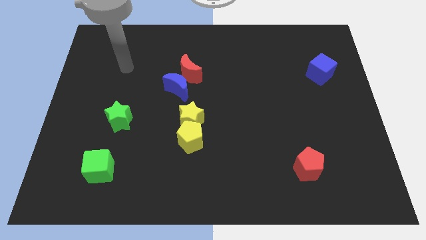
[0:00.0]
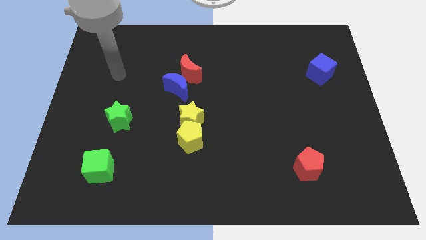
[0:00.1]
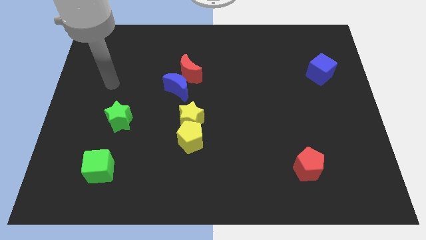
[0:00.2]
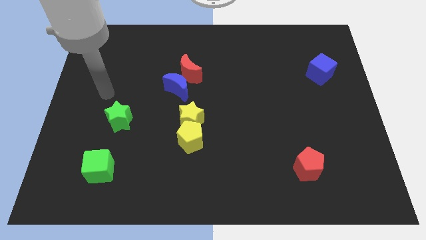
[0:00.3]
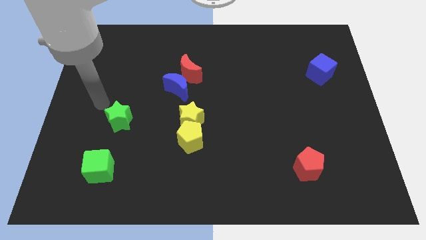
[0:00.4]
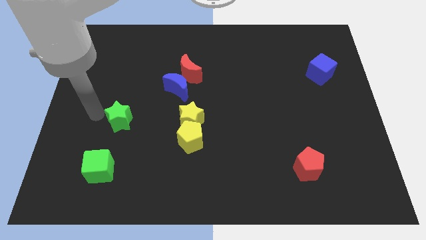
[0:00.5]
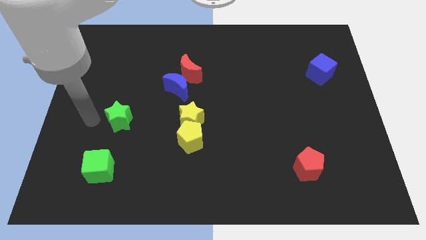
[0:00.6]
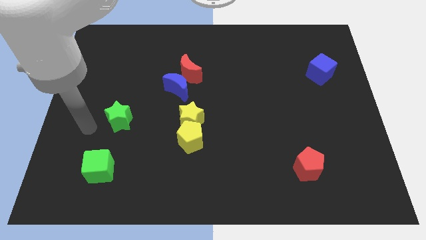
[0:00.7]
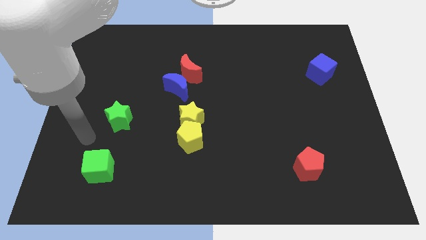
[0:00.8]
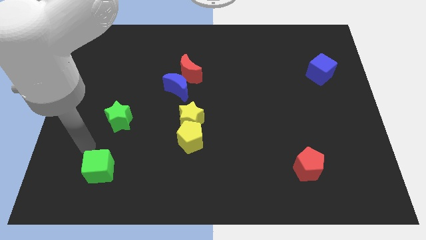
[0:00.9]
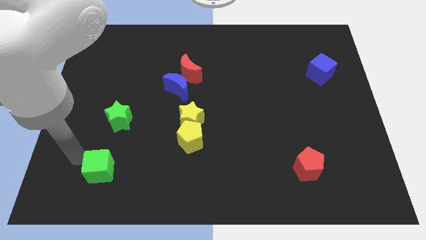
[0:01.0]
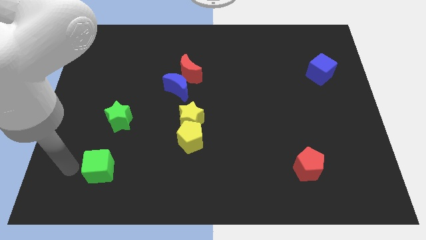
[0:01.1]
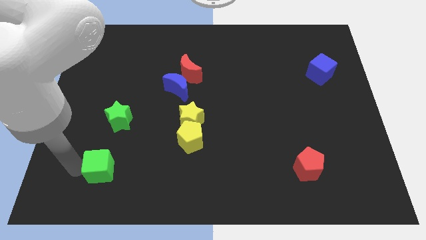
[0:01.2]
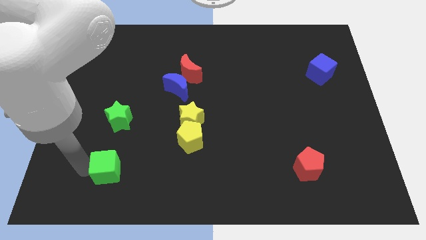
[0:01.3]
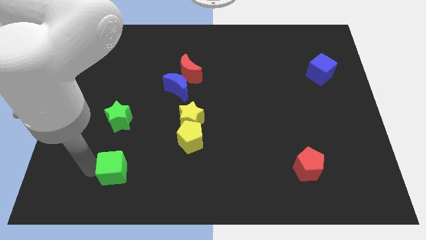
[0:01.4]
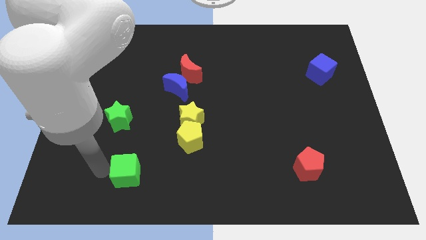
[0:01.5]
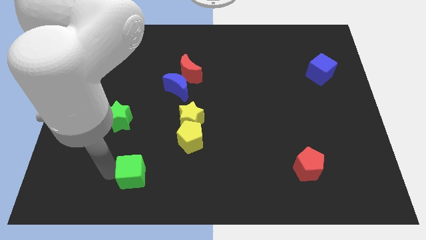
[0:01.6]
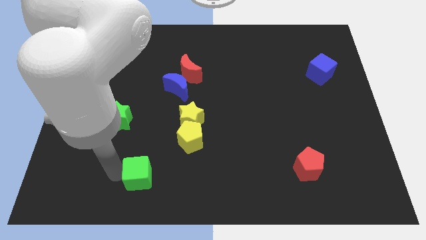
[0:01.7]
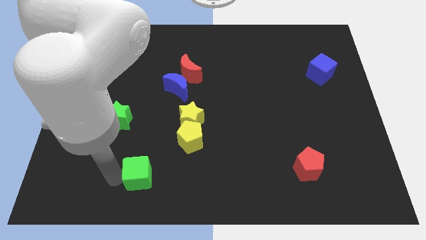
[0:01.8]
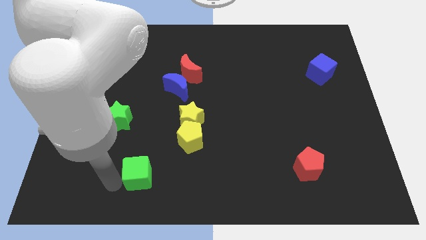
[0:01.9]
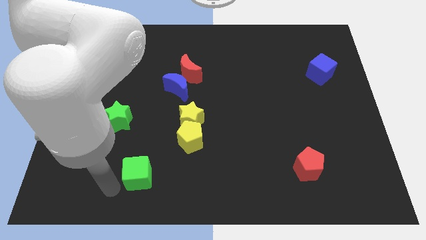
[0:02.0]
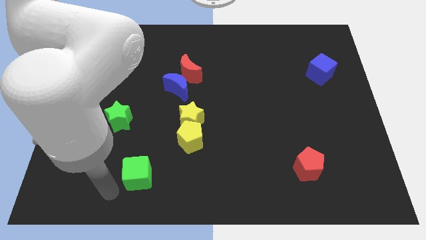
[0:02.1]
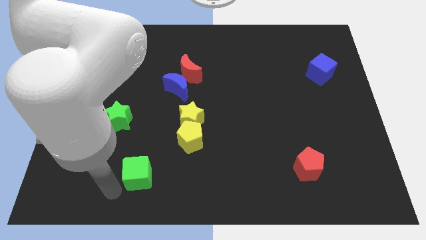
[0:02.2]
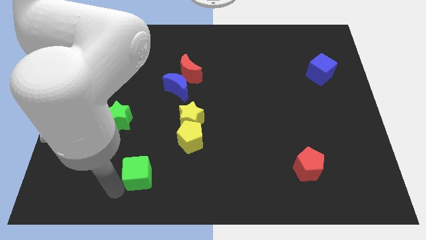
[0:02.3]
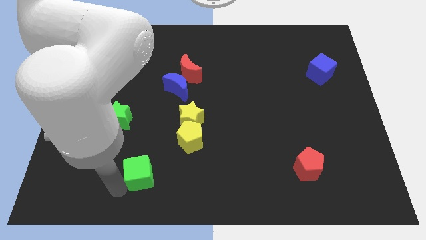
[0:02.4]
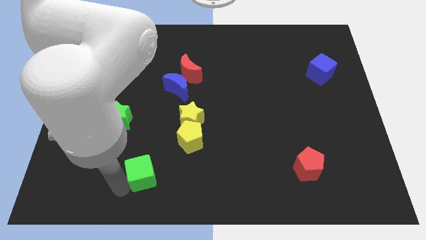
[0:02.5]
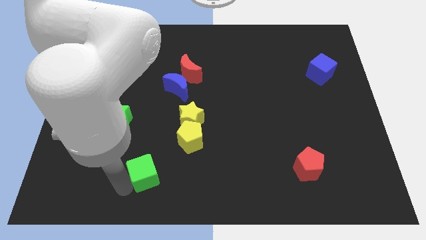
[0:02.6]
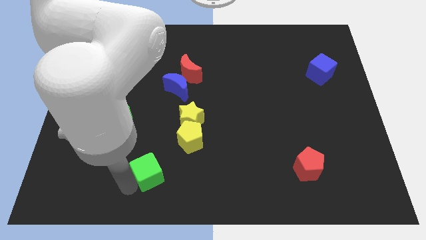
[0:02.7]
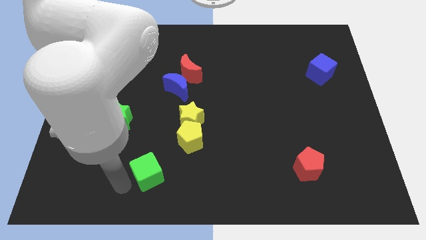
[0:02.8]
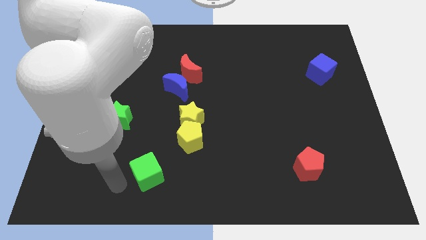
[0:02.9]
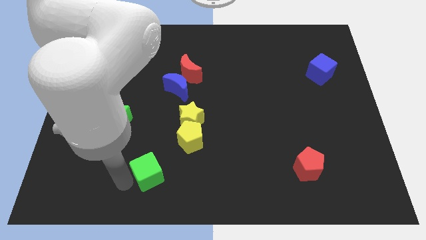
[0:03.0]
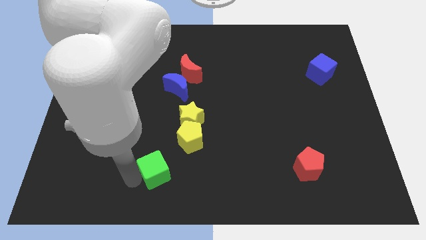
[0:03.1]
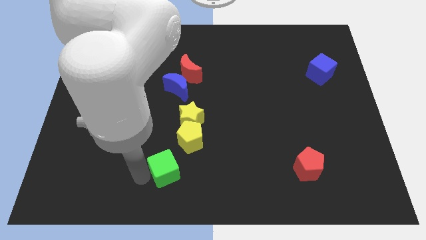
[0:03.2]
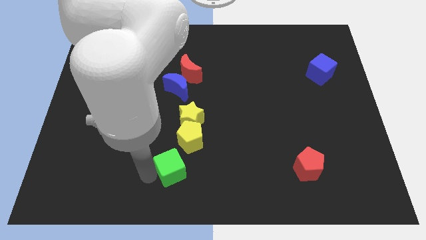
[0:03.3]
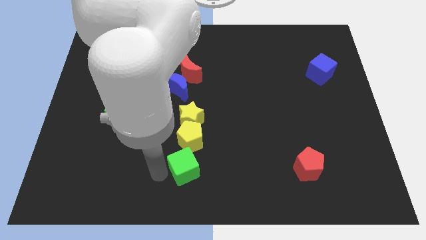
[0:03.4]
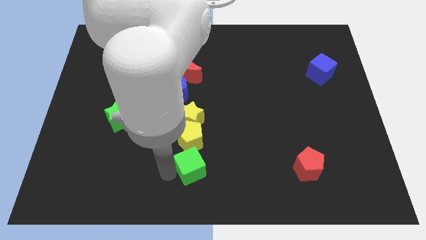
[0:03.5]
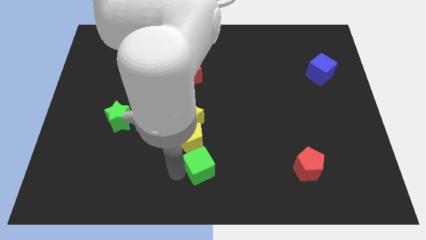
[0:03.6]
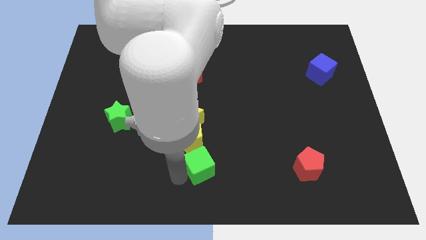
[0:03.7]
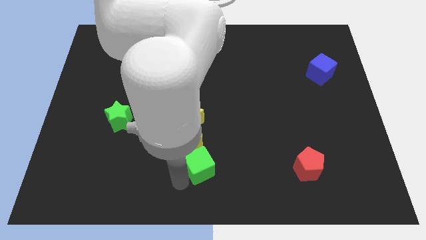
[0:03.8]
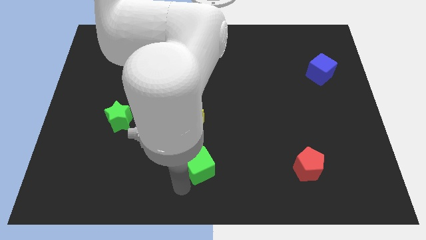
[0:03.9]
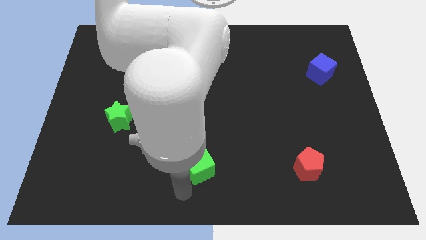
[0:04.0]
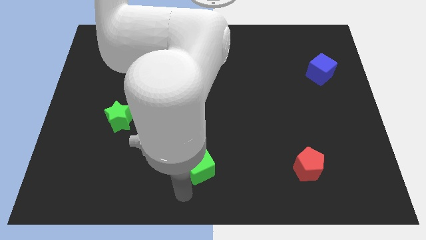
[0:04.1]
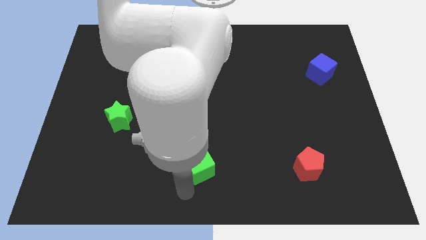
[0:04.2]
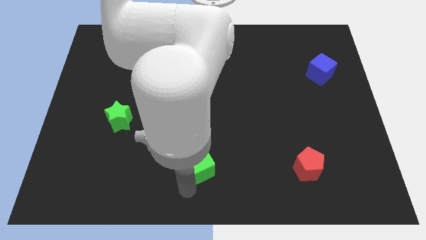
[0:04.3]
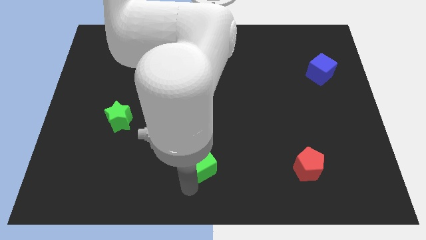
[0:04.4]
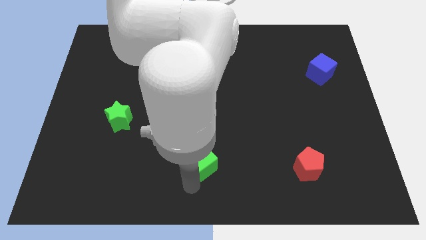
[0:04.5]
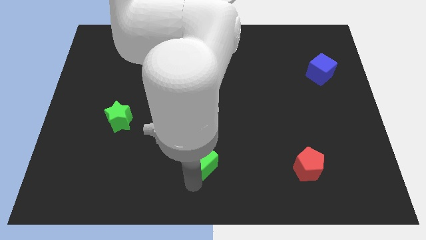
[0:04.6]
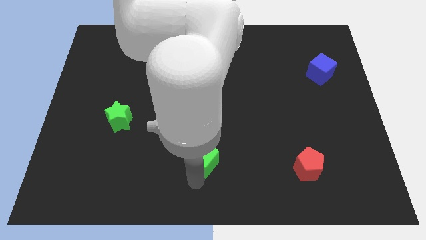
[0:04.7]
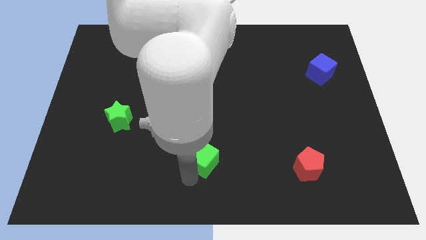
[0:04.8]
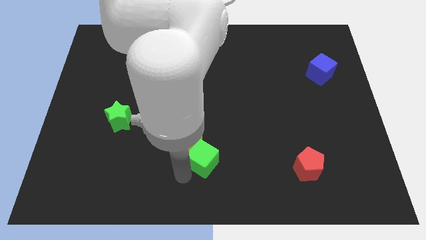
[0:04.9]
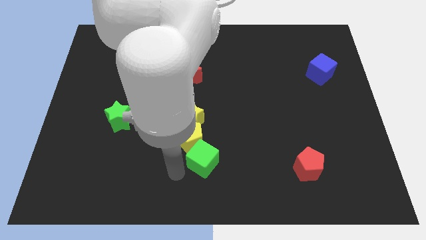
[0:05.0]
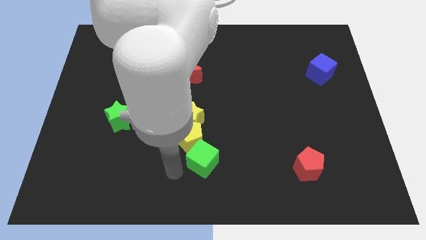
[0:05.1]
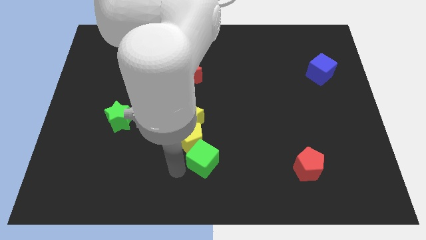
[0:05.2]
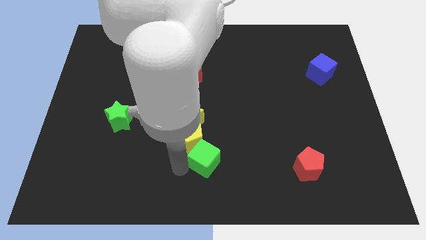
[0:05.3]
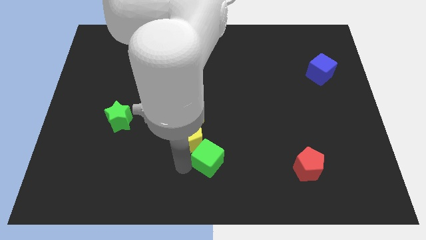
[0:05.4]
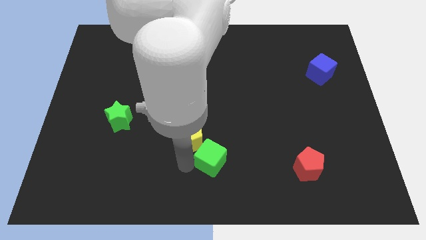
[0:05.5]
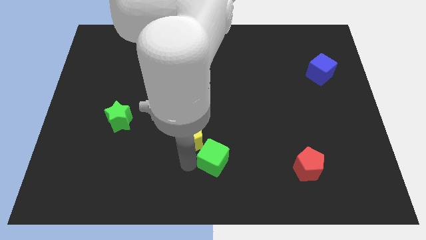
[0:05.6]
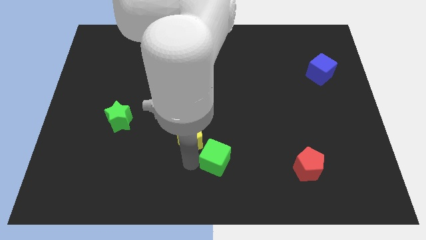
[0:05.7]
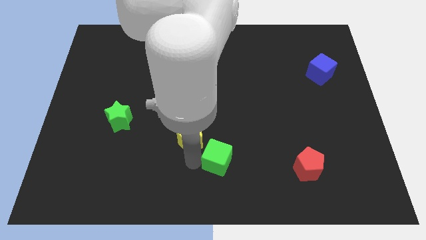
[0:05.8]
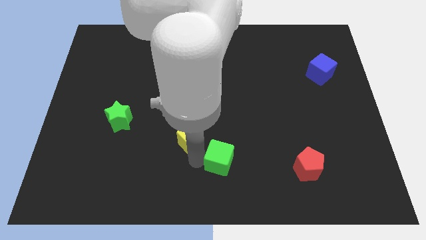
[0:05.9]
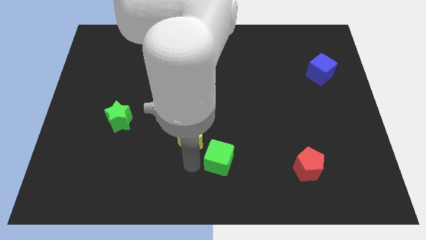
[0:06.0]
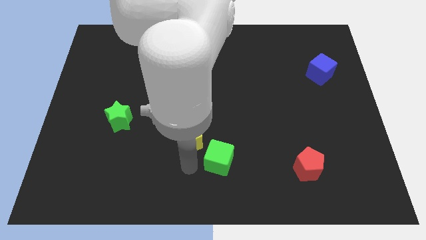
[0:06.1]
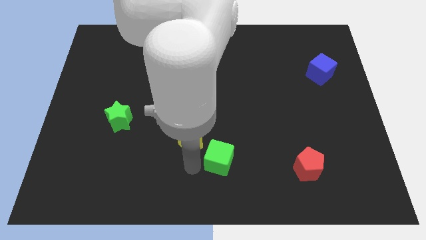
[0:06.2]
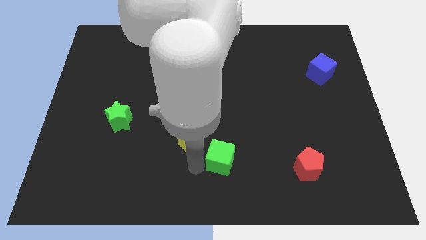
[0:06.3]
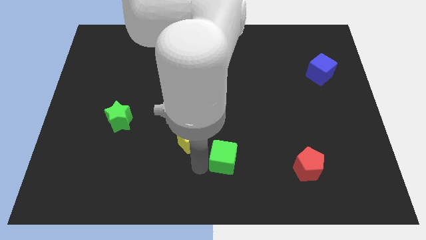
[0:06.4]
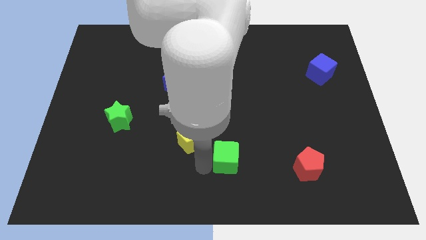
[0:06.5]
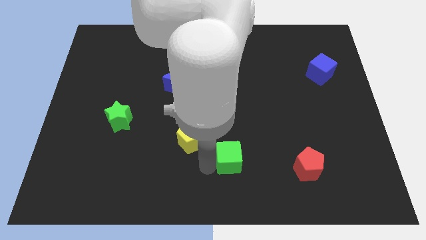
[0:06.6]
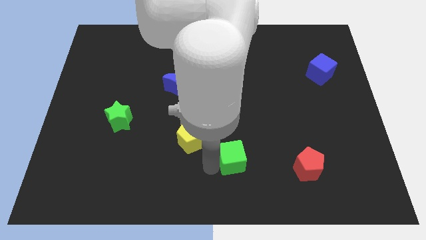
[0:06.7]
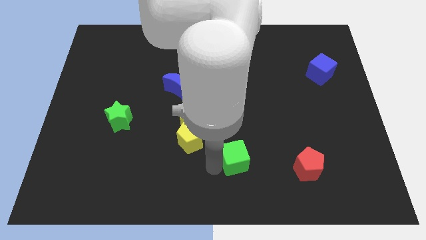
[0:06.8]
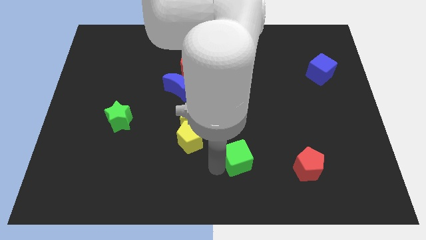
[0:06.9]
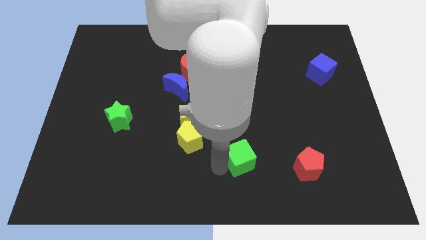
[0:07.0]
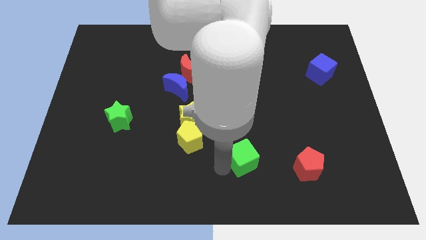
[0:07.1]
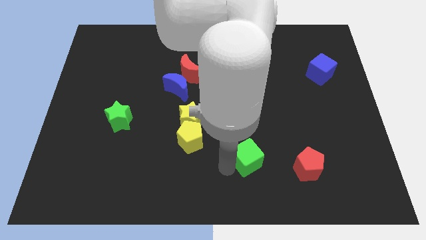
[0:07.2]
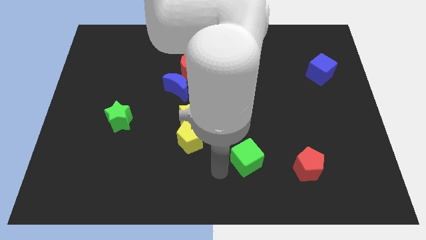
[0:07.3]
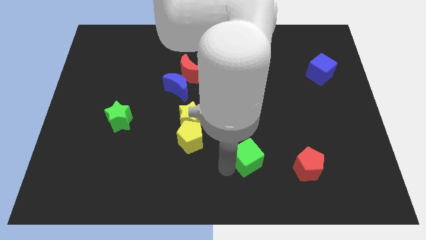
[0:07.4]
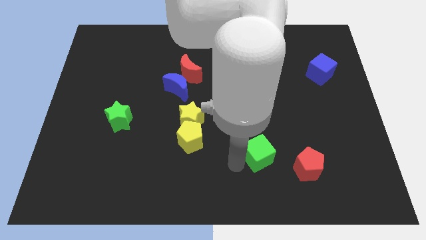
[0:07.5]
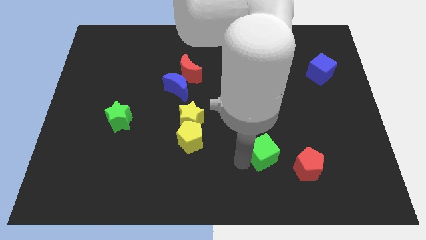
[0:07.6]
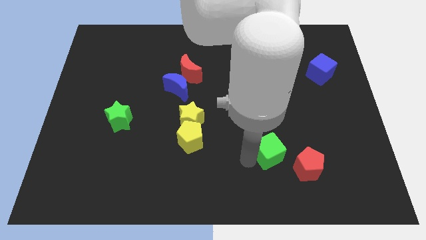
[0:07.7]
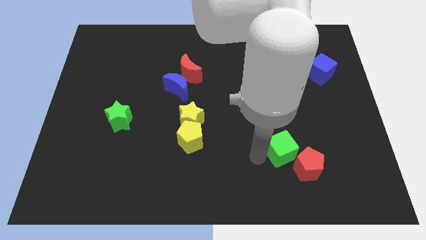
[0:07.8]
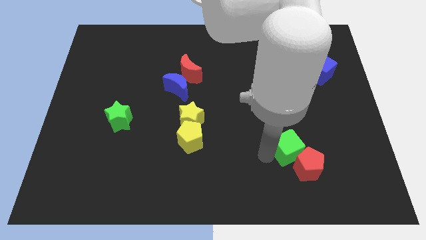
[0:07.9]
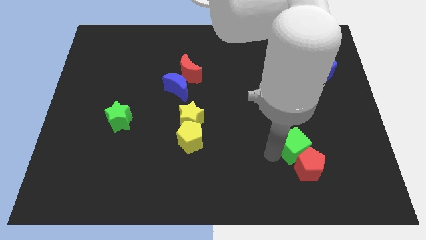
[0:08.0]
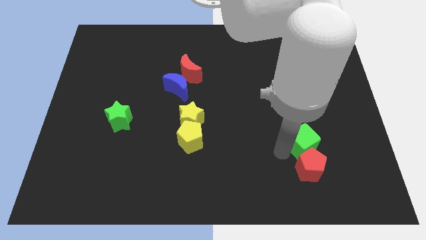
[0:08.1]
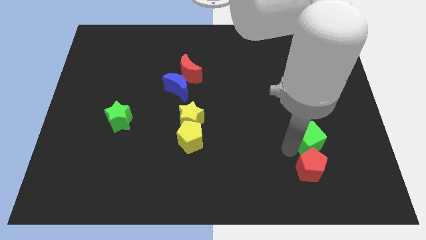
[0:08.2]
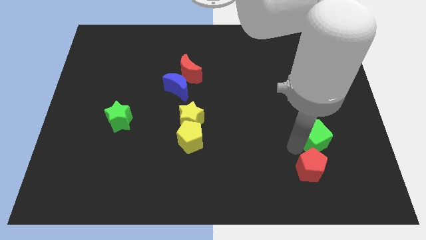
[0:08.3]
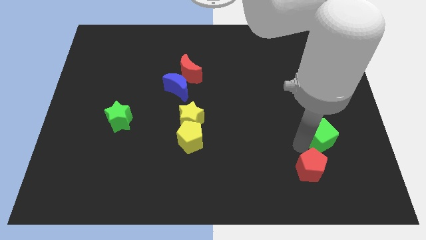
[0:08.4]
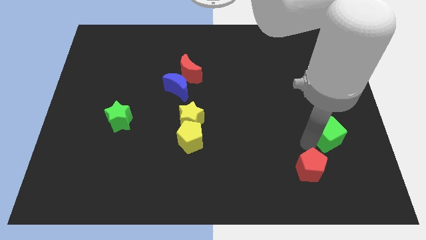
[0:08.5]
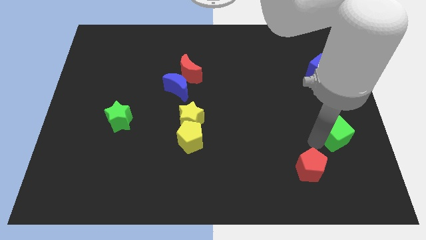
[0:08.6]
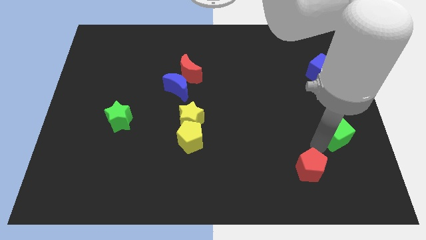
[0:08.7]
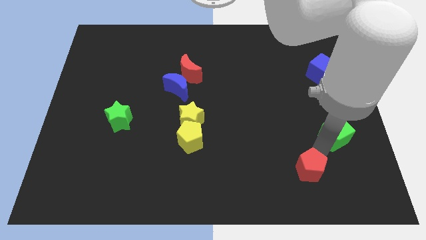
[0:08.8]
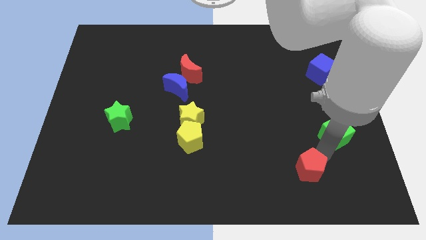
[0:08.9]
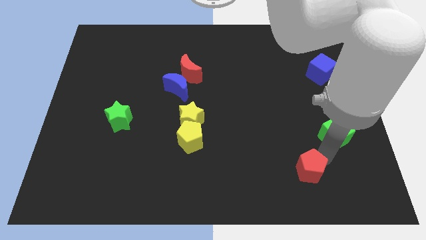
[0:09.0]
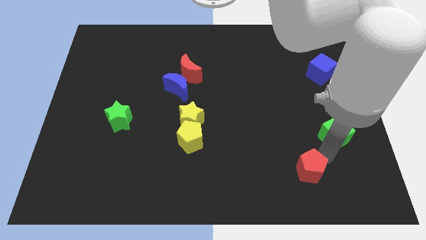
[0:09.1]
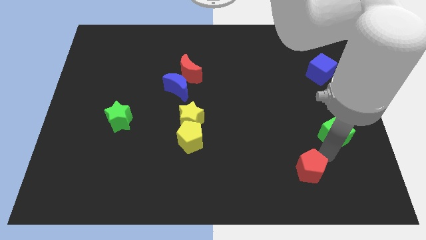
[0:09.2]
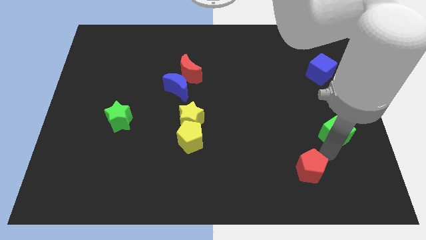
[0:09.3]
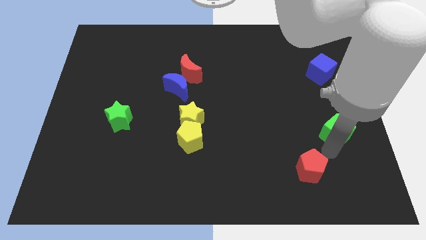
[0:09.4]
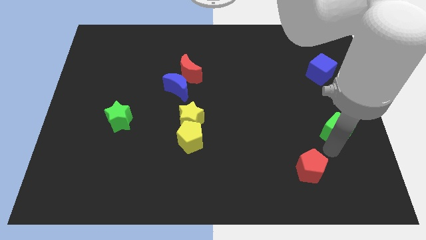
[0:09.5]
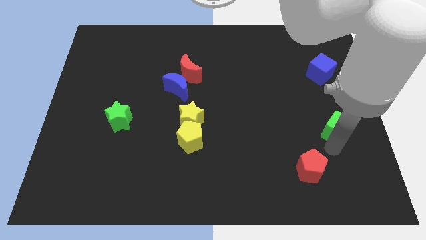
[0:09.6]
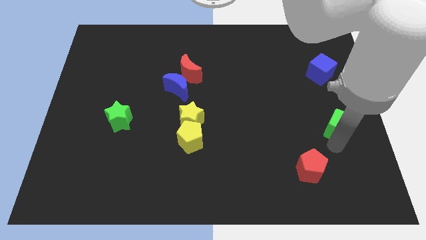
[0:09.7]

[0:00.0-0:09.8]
move the green cube to the center right
